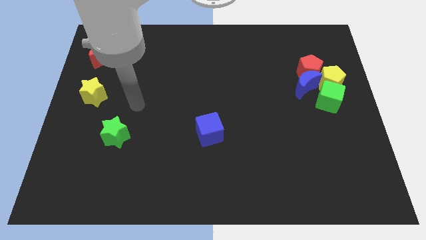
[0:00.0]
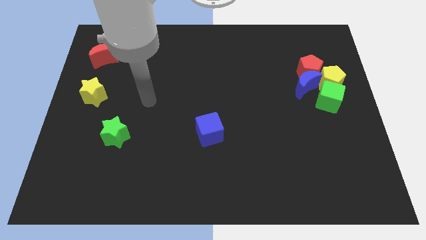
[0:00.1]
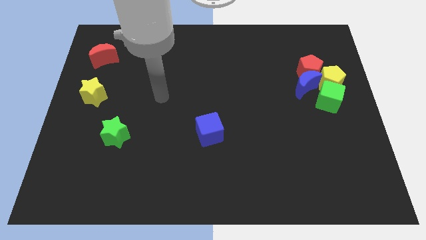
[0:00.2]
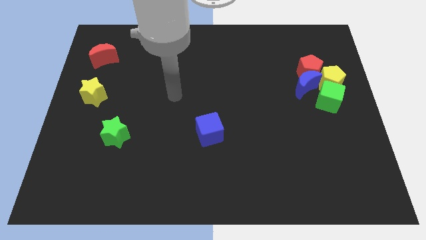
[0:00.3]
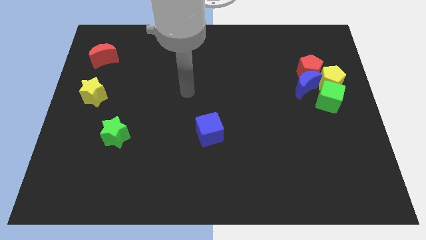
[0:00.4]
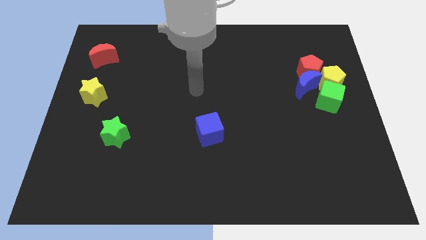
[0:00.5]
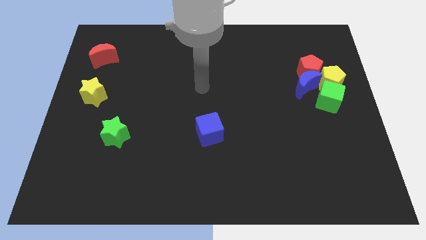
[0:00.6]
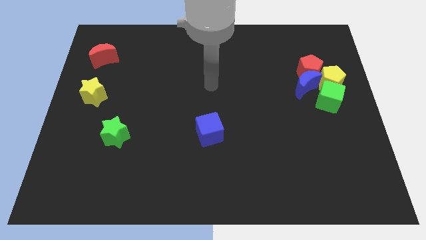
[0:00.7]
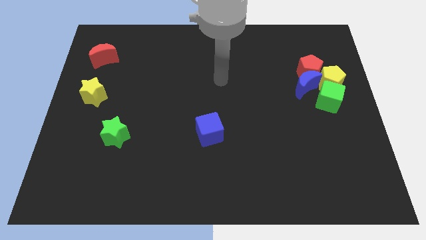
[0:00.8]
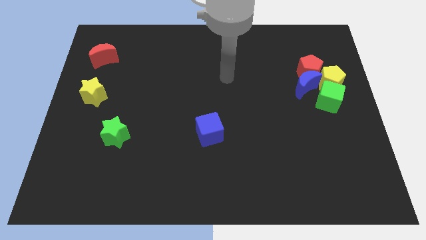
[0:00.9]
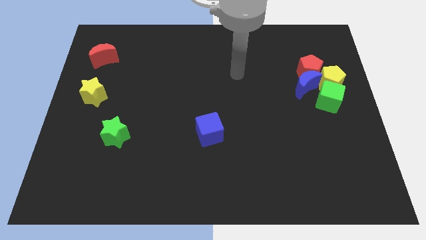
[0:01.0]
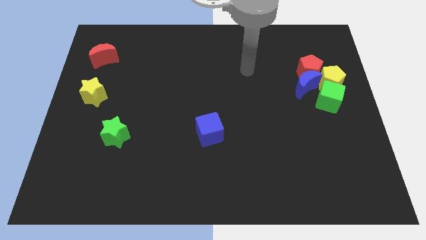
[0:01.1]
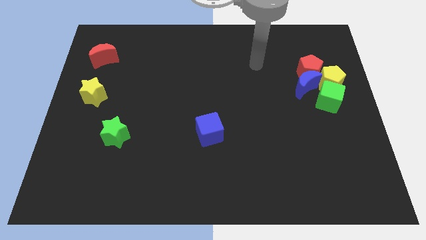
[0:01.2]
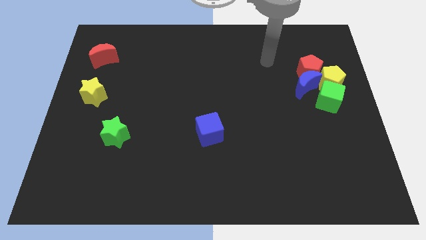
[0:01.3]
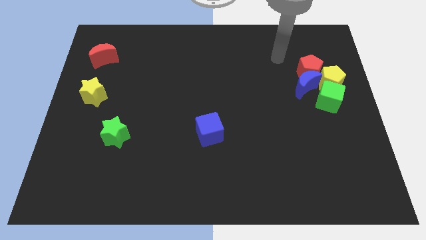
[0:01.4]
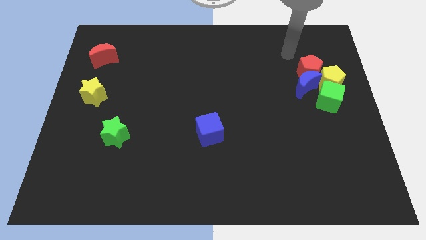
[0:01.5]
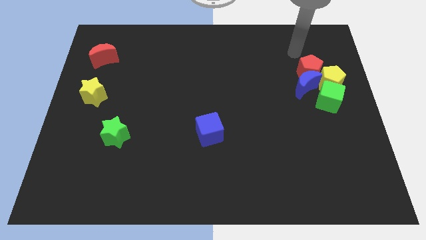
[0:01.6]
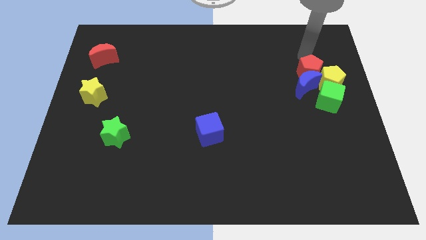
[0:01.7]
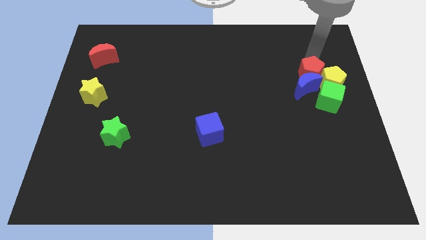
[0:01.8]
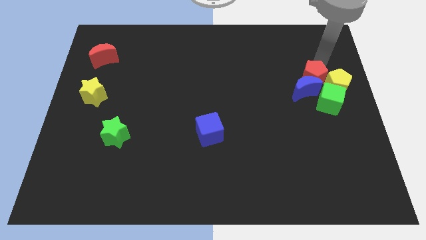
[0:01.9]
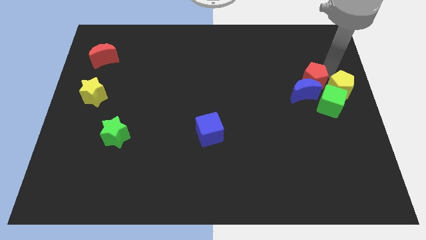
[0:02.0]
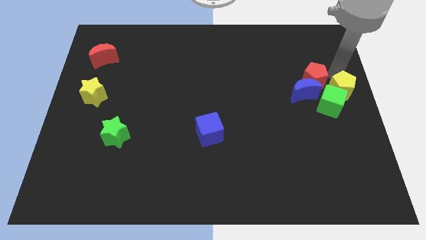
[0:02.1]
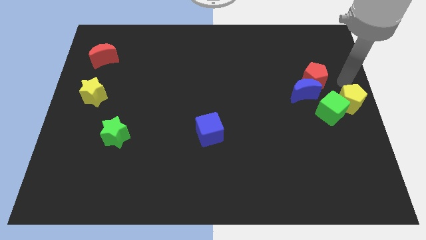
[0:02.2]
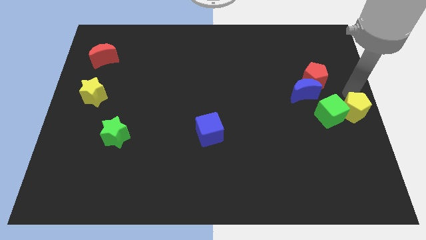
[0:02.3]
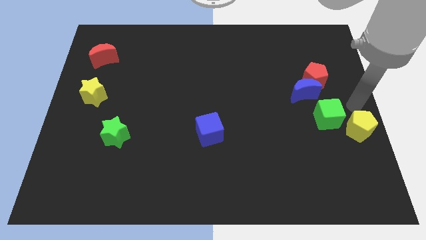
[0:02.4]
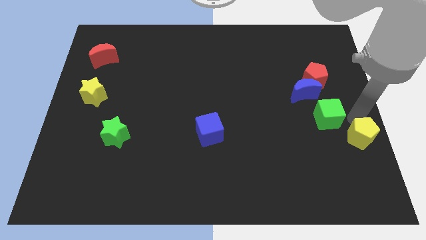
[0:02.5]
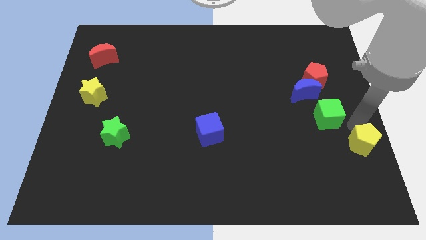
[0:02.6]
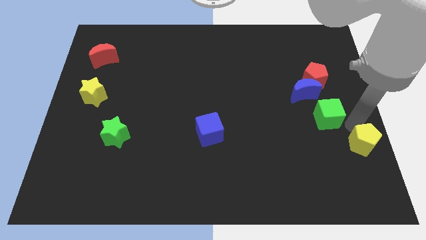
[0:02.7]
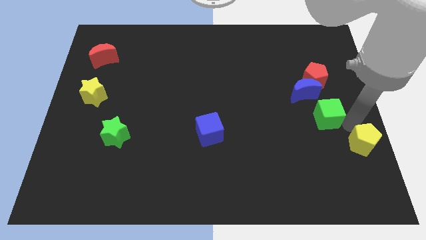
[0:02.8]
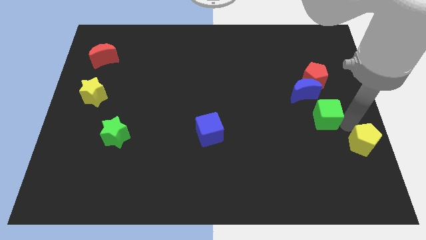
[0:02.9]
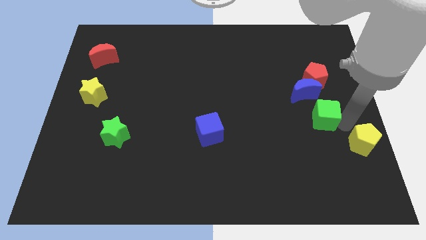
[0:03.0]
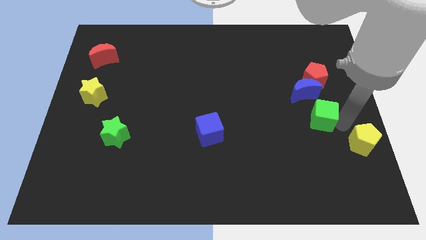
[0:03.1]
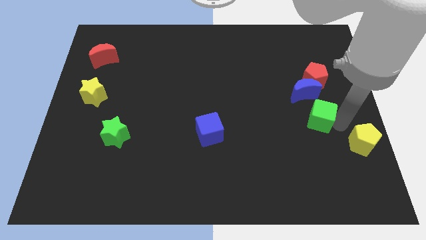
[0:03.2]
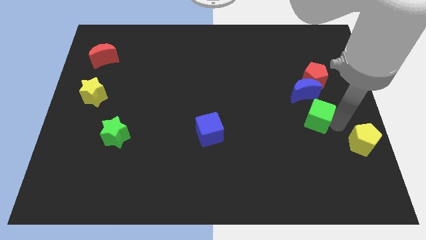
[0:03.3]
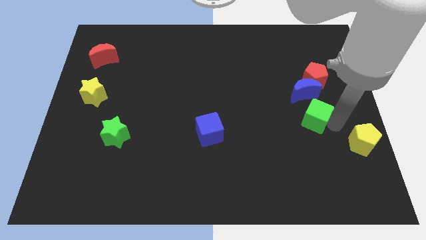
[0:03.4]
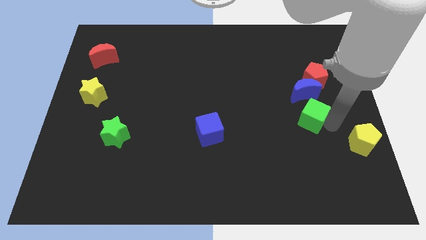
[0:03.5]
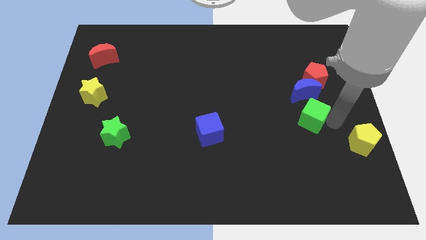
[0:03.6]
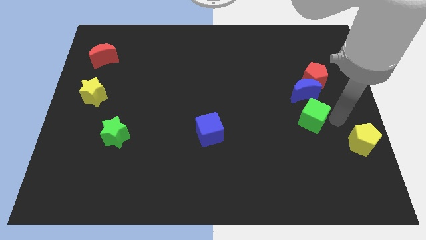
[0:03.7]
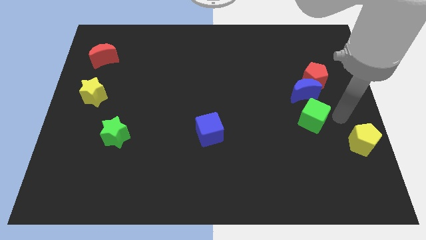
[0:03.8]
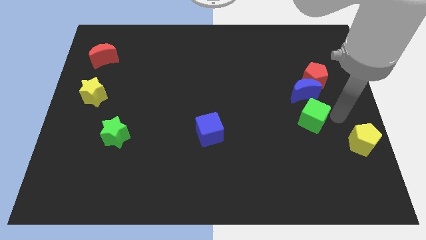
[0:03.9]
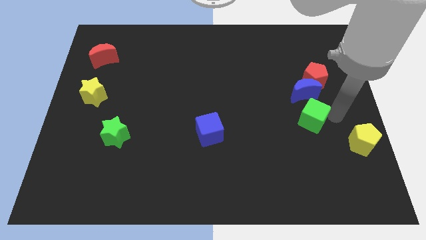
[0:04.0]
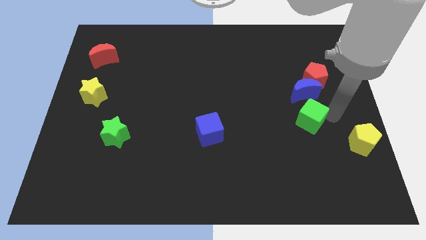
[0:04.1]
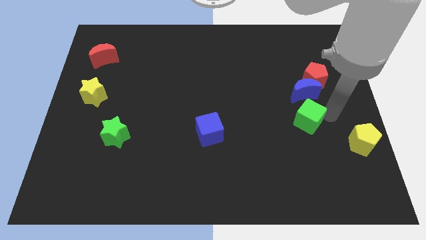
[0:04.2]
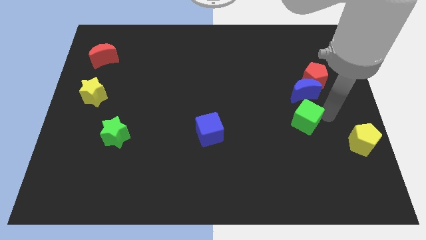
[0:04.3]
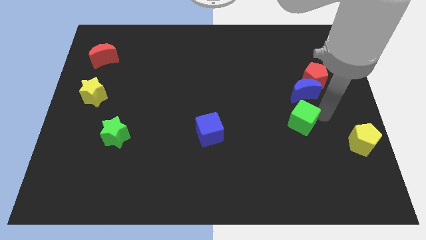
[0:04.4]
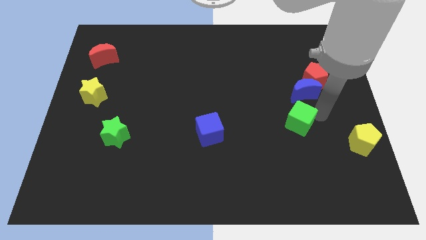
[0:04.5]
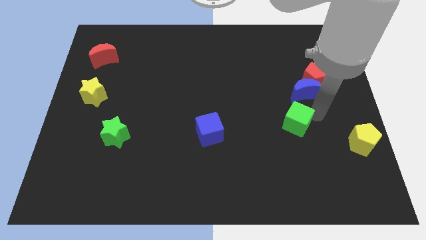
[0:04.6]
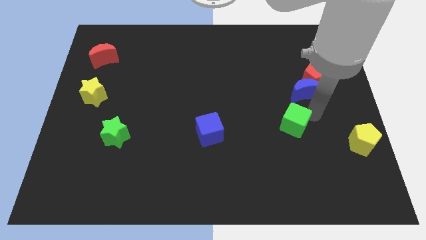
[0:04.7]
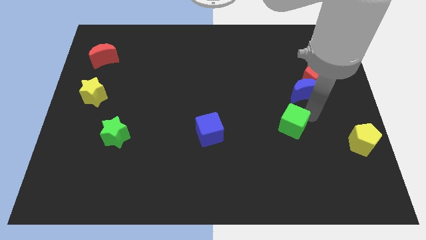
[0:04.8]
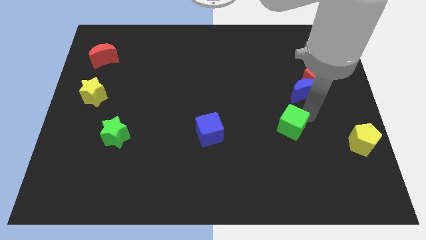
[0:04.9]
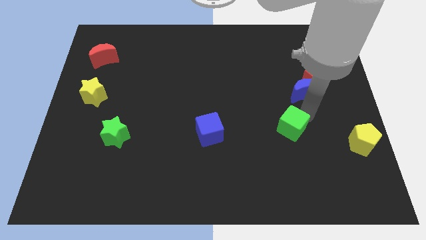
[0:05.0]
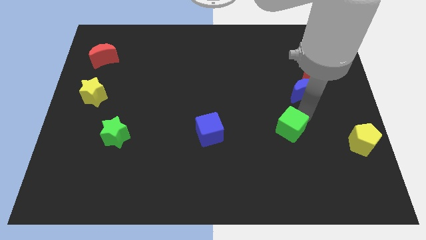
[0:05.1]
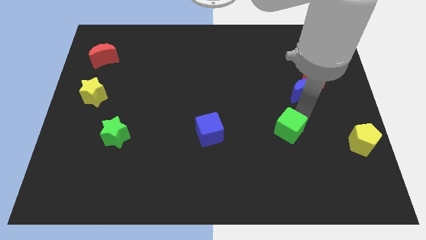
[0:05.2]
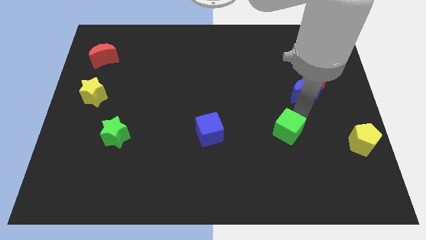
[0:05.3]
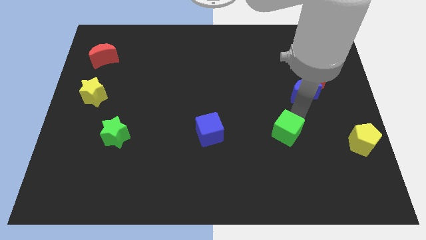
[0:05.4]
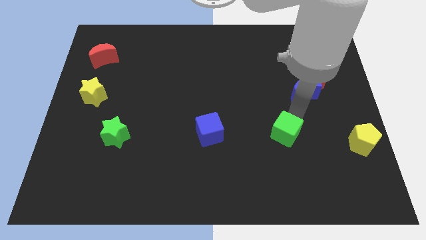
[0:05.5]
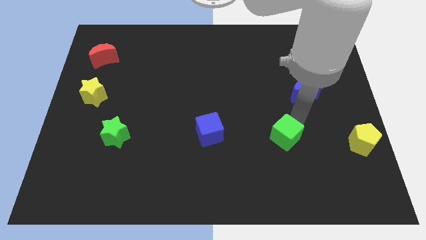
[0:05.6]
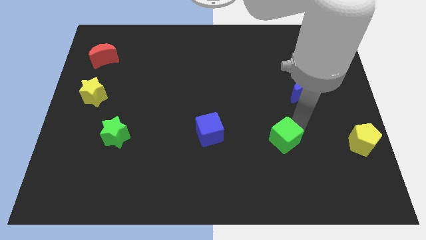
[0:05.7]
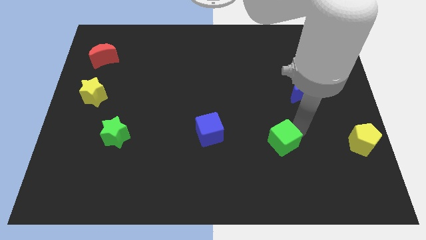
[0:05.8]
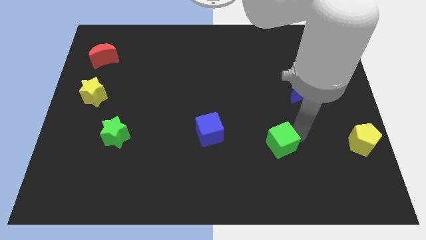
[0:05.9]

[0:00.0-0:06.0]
move the green cube to the right side of the blue cube

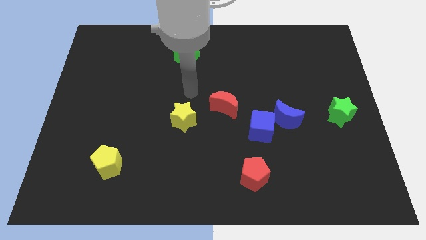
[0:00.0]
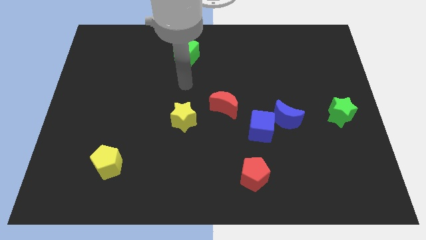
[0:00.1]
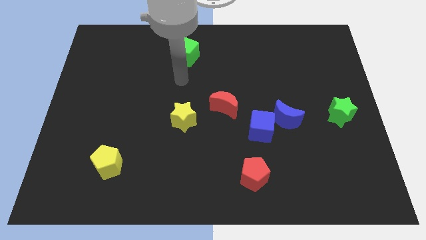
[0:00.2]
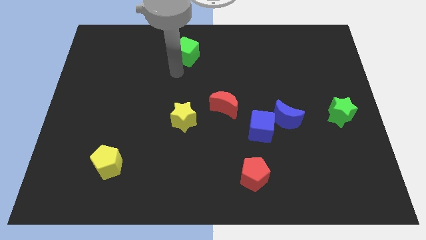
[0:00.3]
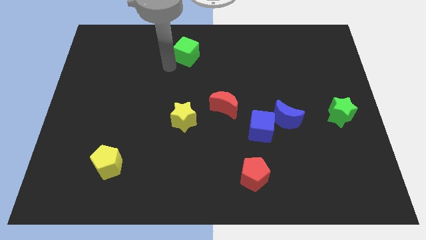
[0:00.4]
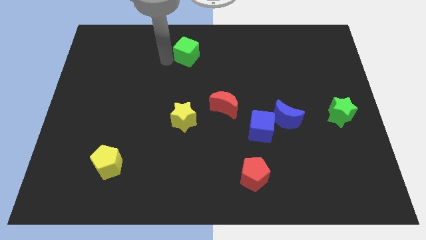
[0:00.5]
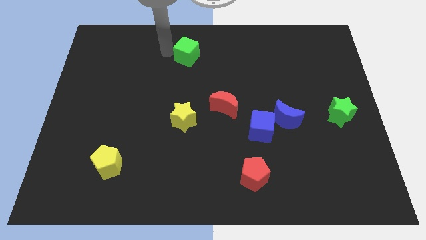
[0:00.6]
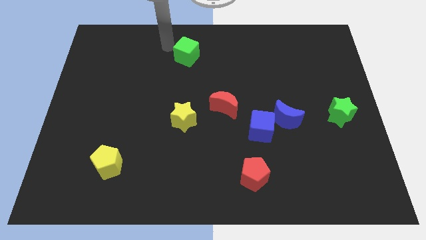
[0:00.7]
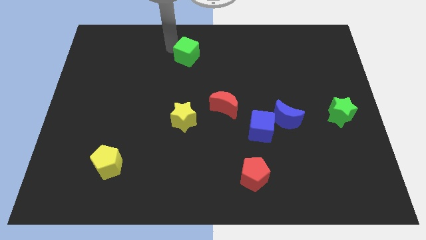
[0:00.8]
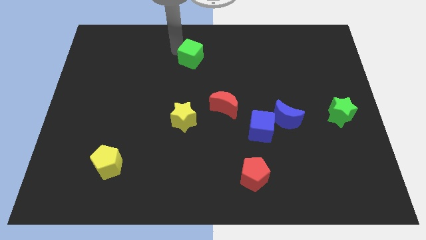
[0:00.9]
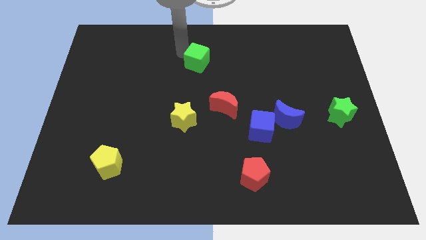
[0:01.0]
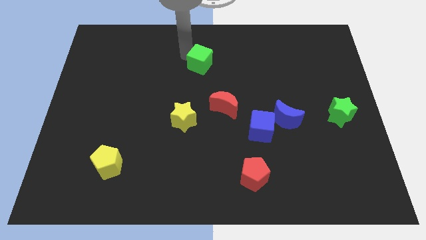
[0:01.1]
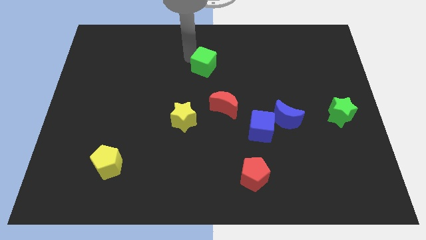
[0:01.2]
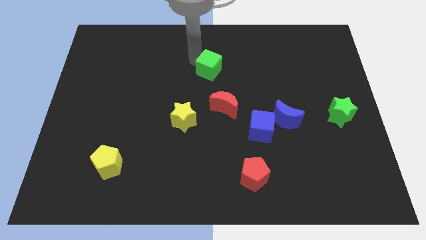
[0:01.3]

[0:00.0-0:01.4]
slide the green cube to the top of the red moon
